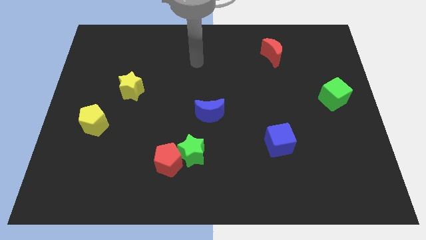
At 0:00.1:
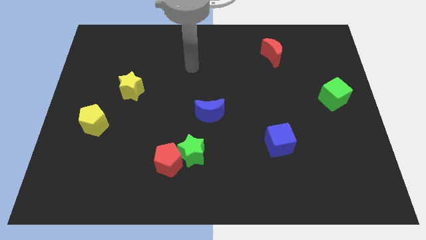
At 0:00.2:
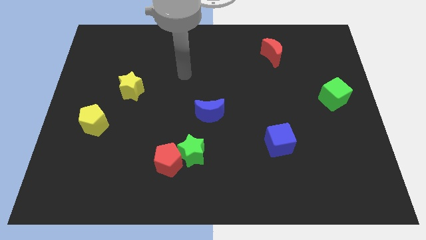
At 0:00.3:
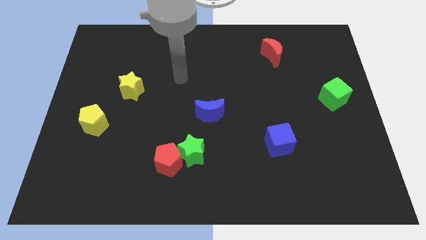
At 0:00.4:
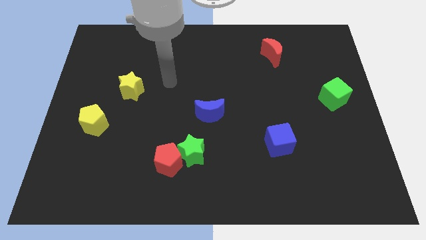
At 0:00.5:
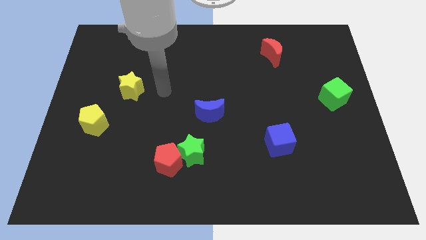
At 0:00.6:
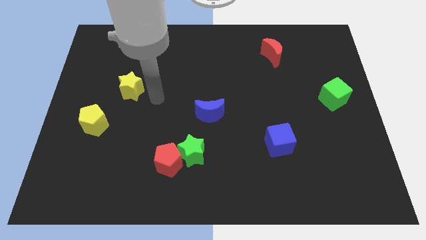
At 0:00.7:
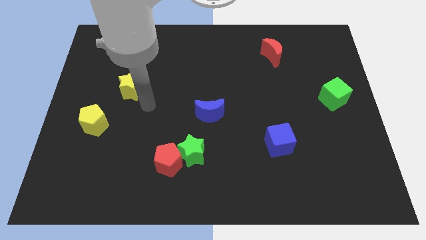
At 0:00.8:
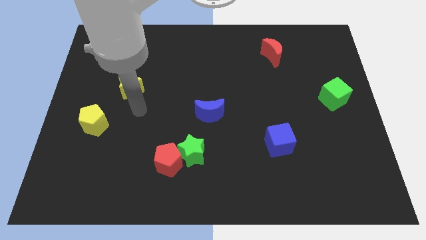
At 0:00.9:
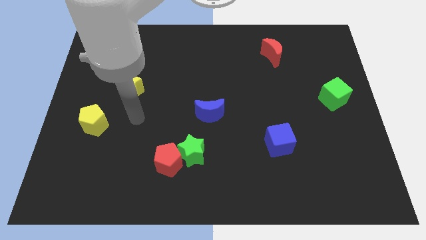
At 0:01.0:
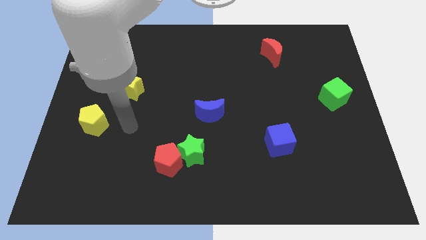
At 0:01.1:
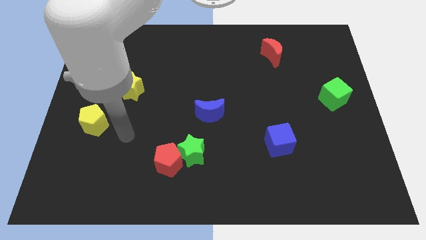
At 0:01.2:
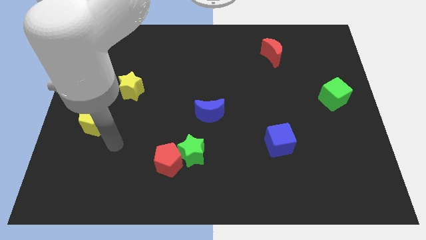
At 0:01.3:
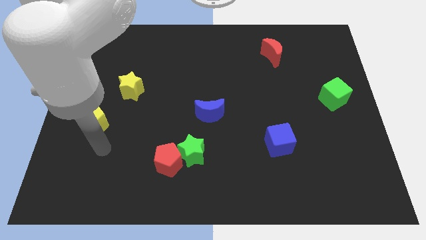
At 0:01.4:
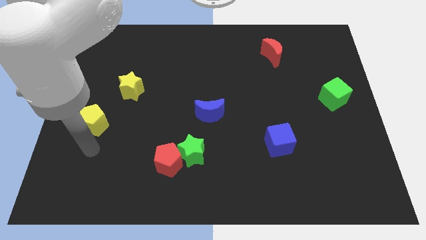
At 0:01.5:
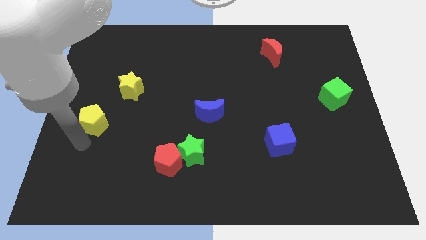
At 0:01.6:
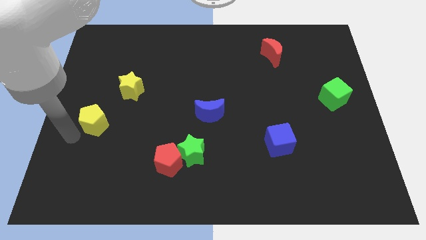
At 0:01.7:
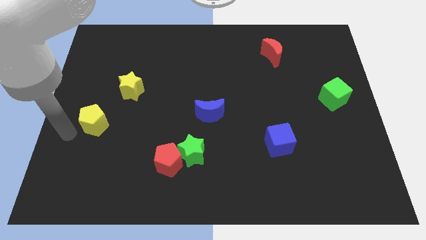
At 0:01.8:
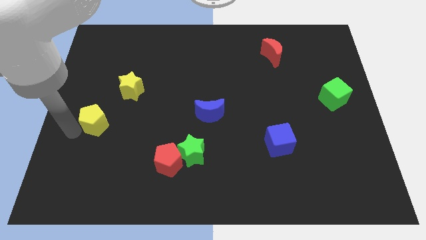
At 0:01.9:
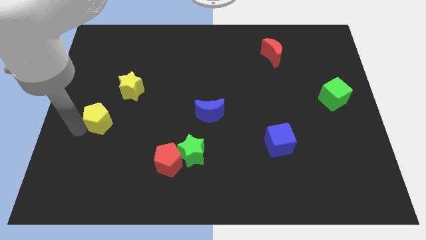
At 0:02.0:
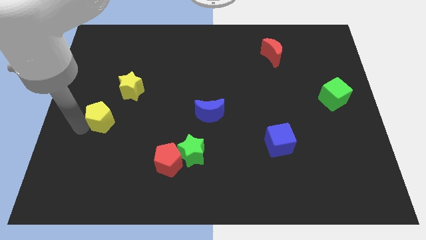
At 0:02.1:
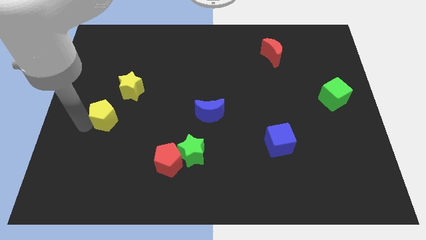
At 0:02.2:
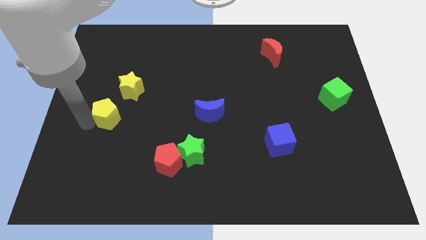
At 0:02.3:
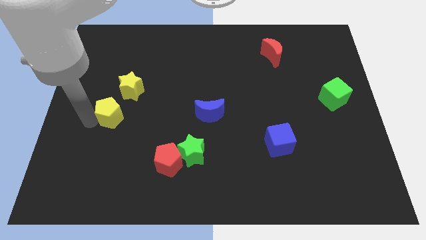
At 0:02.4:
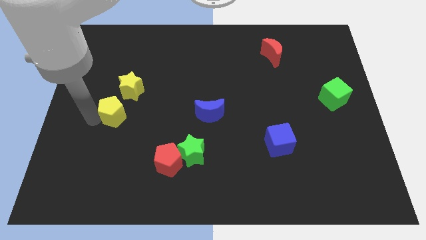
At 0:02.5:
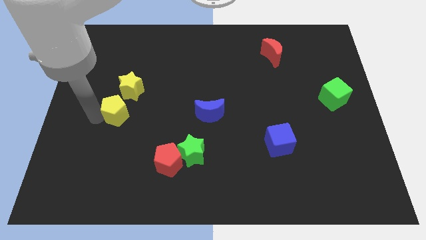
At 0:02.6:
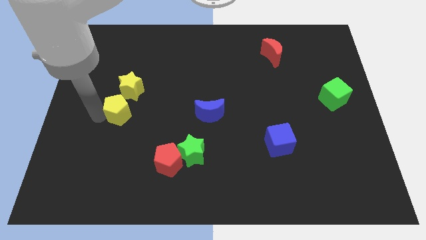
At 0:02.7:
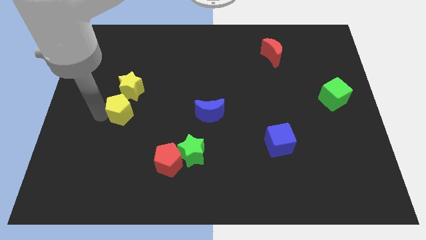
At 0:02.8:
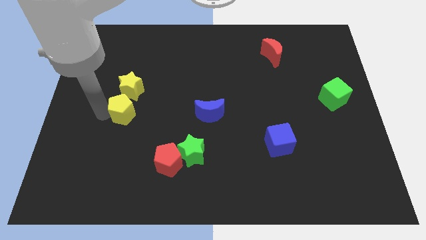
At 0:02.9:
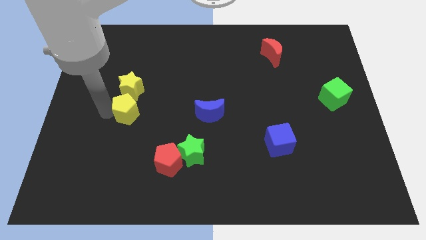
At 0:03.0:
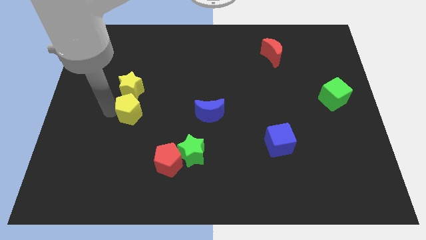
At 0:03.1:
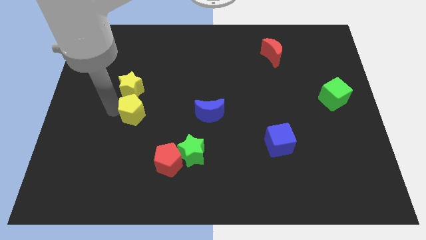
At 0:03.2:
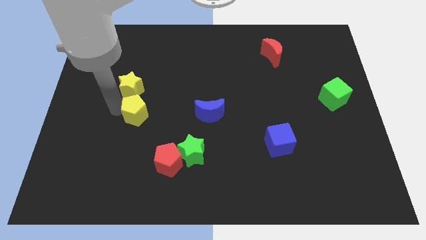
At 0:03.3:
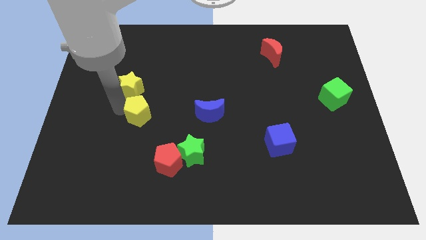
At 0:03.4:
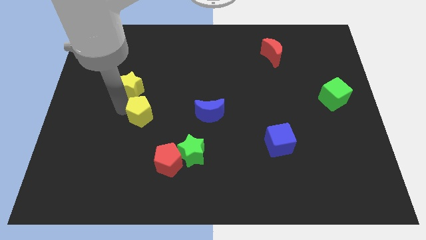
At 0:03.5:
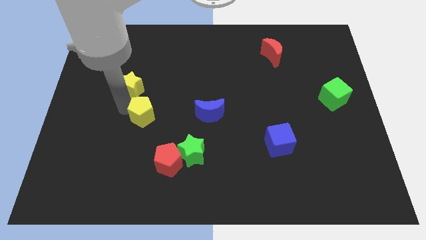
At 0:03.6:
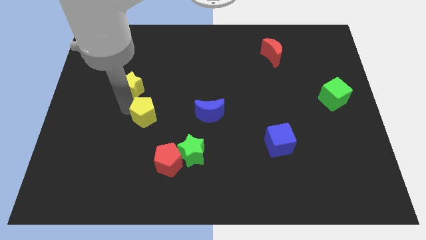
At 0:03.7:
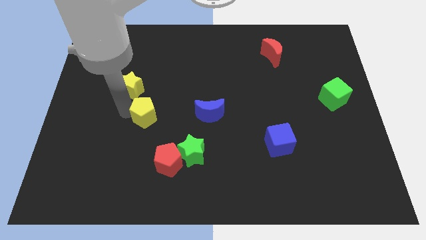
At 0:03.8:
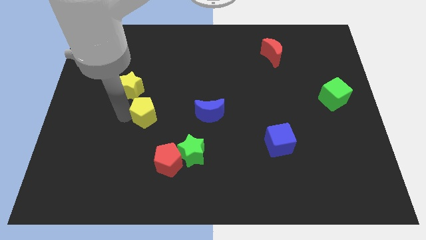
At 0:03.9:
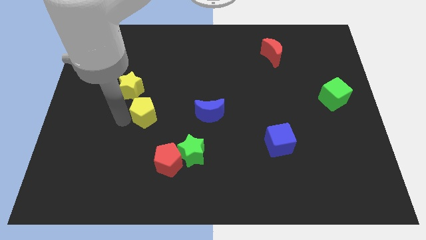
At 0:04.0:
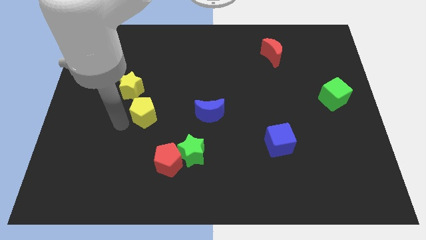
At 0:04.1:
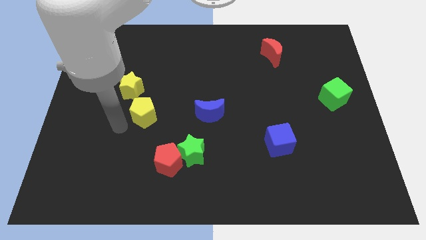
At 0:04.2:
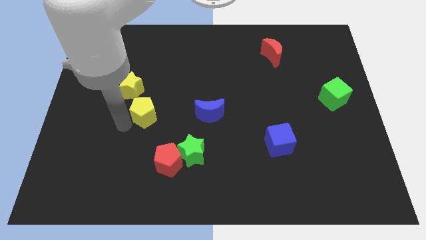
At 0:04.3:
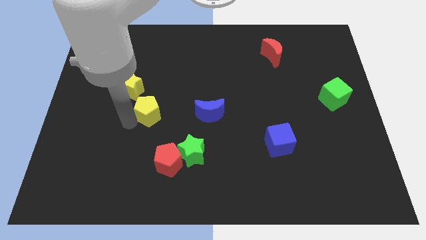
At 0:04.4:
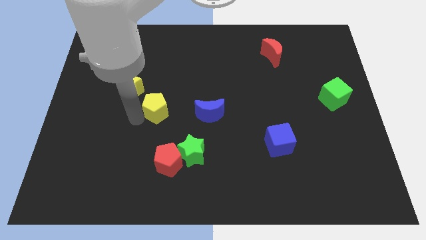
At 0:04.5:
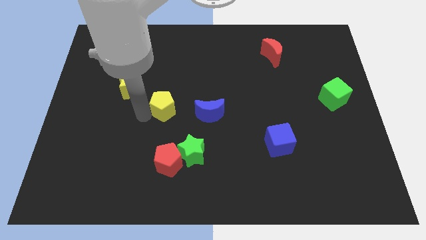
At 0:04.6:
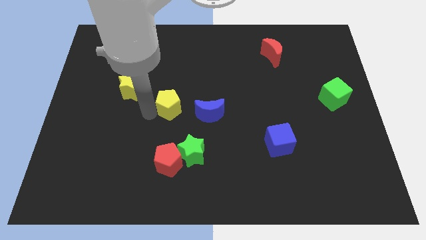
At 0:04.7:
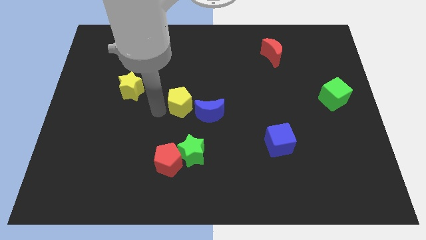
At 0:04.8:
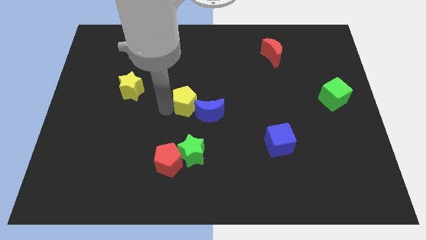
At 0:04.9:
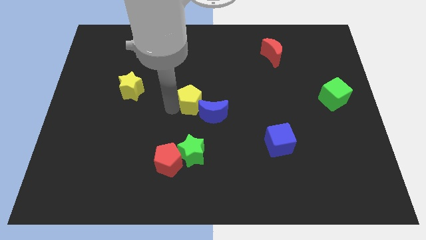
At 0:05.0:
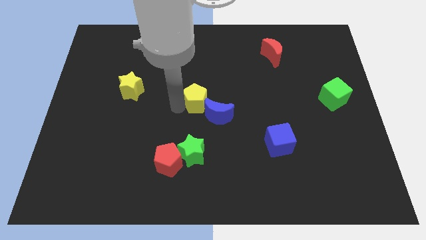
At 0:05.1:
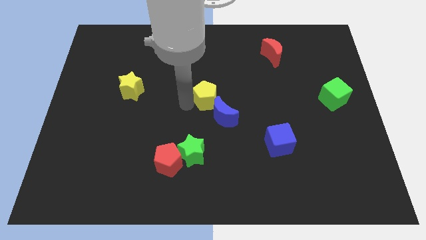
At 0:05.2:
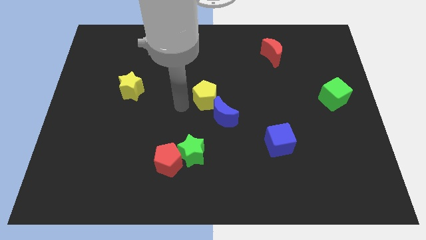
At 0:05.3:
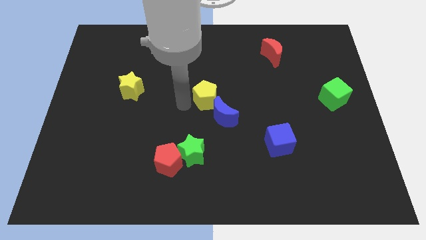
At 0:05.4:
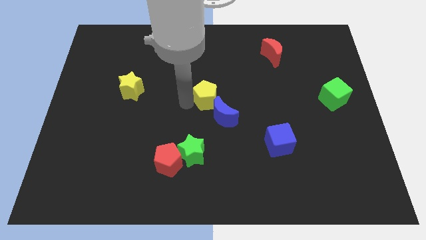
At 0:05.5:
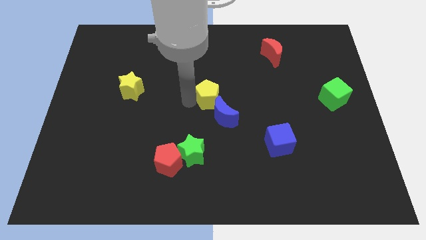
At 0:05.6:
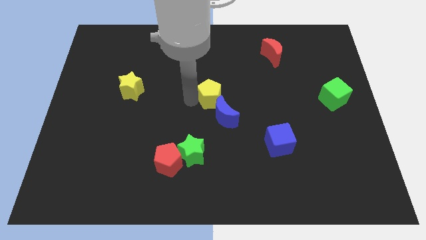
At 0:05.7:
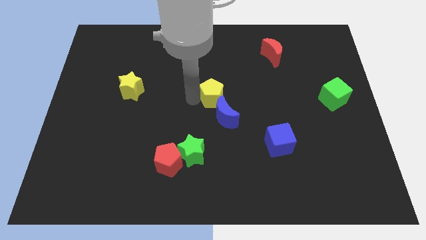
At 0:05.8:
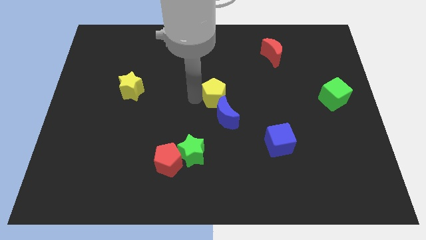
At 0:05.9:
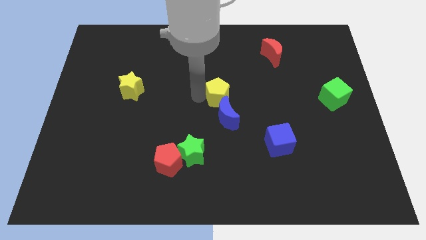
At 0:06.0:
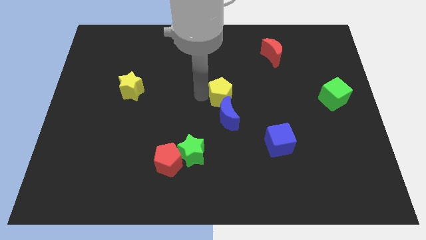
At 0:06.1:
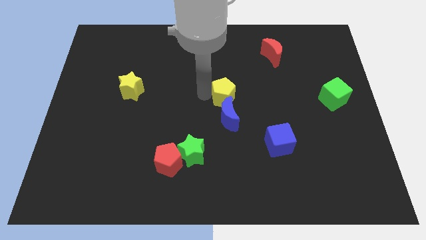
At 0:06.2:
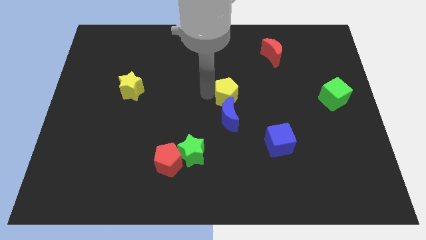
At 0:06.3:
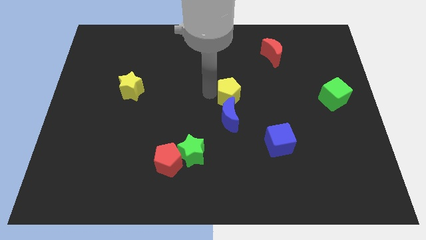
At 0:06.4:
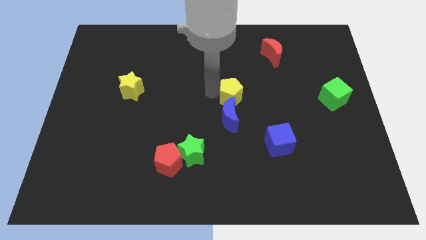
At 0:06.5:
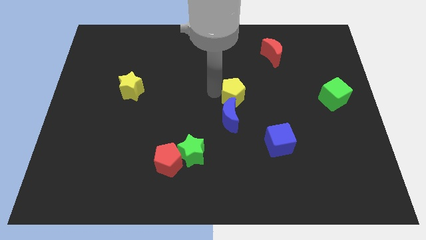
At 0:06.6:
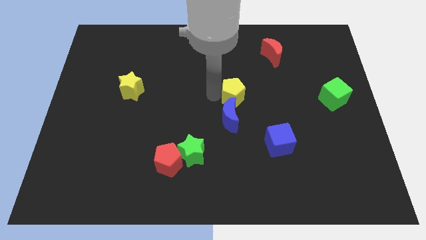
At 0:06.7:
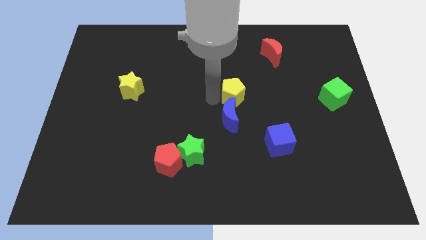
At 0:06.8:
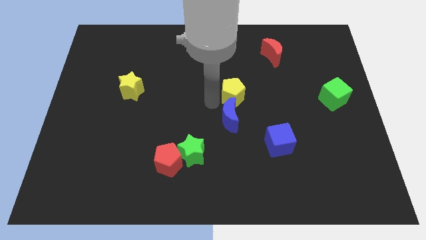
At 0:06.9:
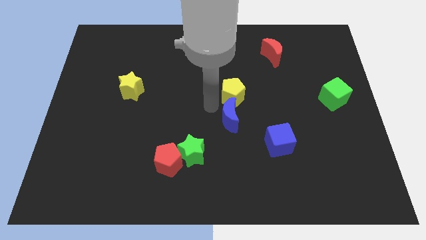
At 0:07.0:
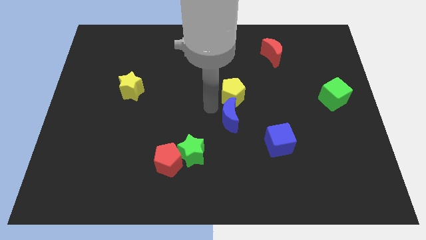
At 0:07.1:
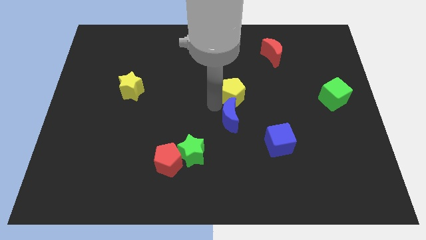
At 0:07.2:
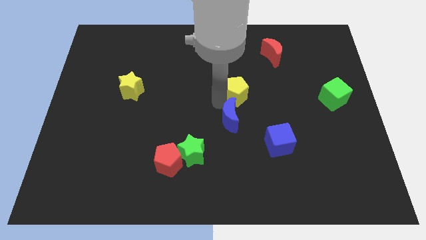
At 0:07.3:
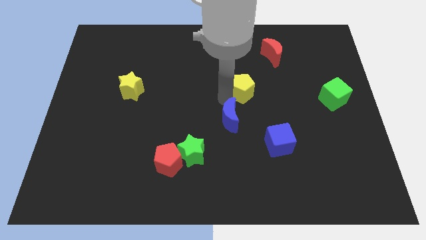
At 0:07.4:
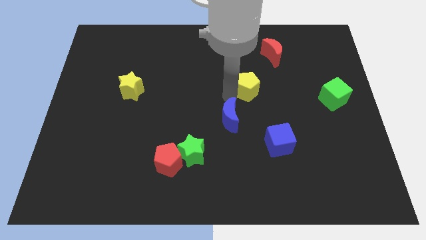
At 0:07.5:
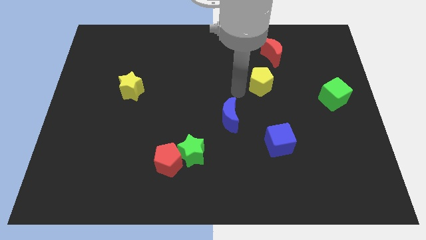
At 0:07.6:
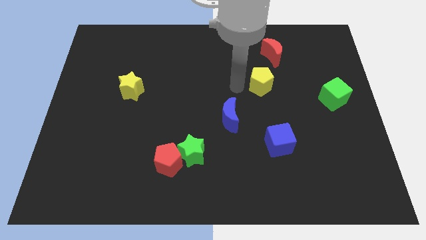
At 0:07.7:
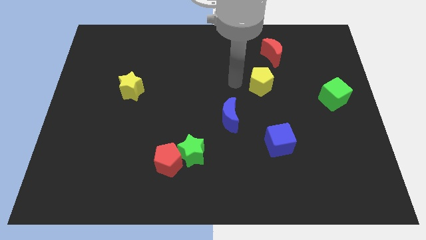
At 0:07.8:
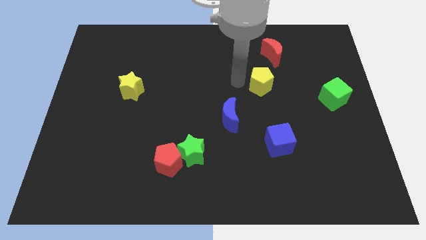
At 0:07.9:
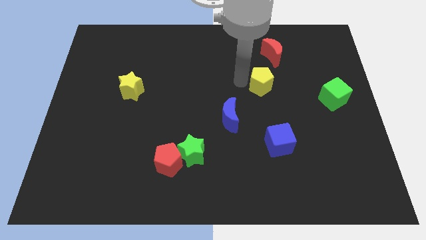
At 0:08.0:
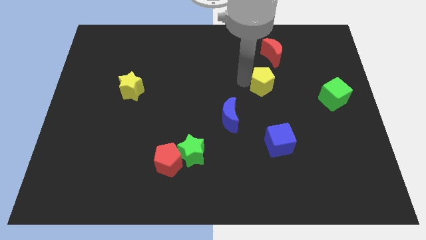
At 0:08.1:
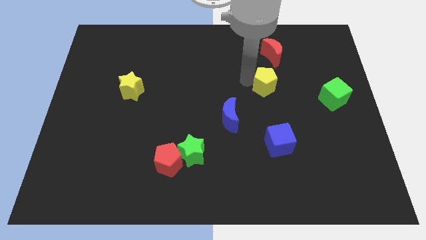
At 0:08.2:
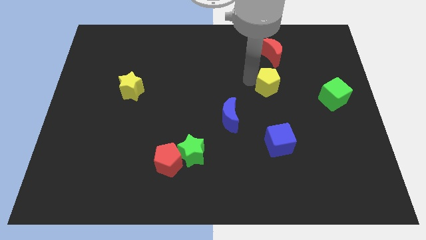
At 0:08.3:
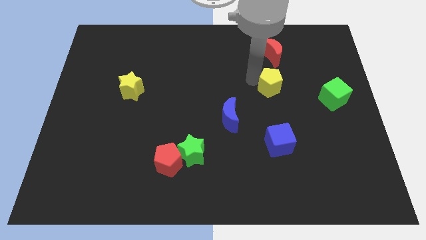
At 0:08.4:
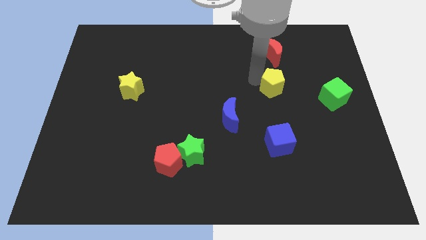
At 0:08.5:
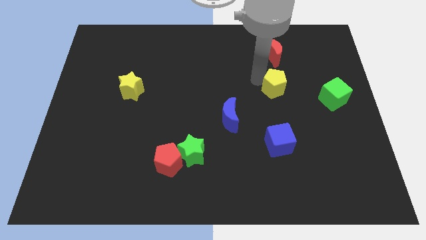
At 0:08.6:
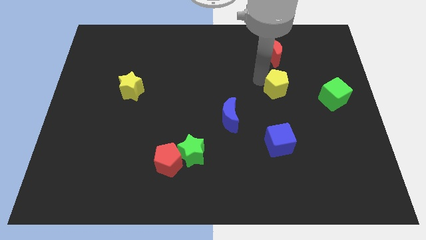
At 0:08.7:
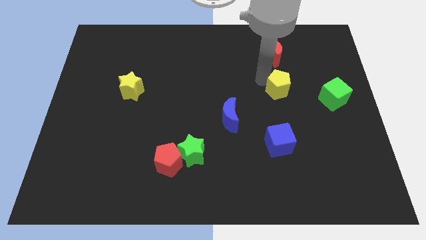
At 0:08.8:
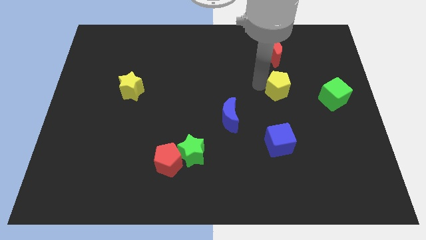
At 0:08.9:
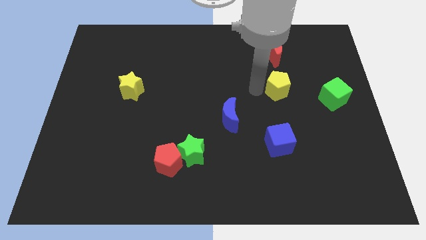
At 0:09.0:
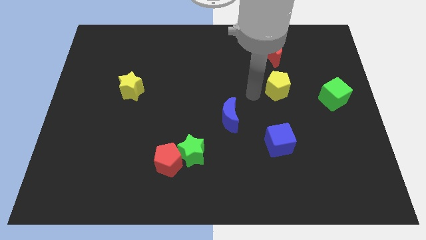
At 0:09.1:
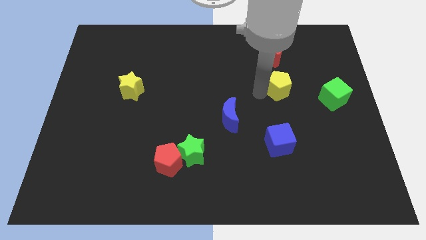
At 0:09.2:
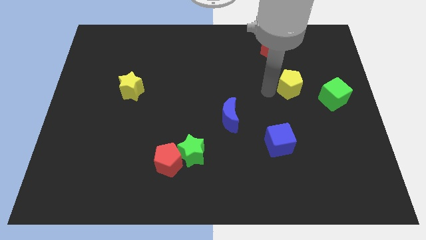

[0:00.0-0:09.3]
push the yellow pentagon to the top left side of the green cube
